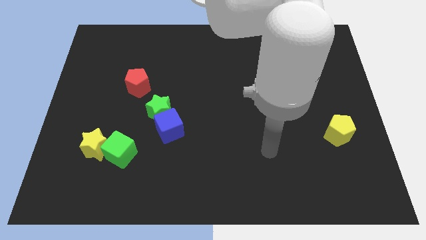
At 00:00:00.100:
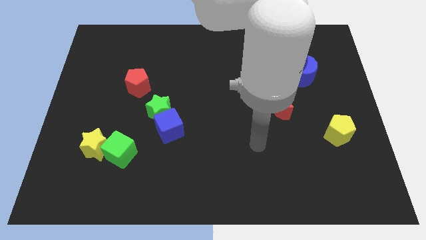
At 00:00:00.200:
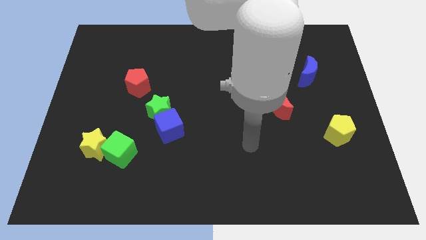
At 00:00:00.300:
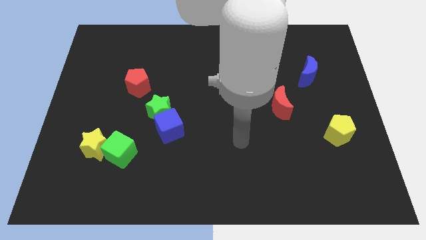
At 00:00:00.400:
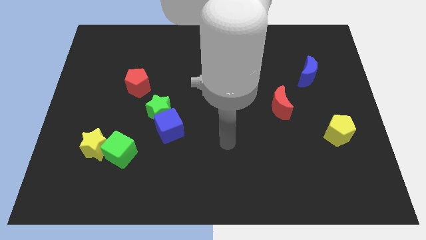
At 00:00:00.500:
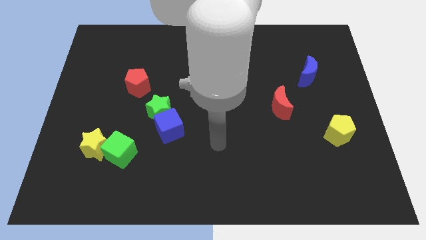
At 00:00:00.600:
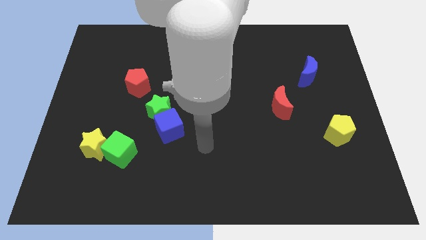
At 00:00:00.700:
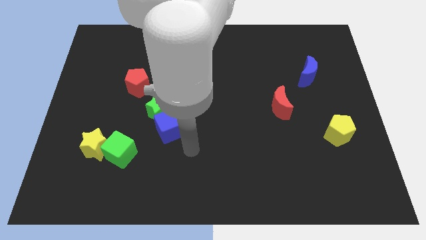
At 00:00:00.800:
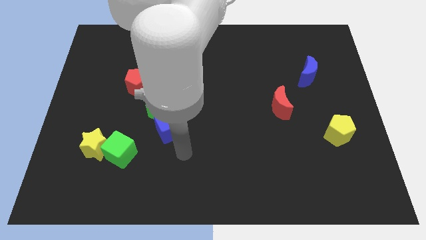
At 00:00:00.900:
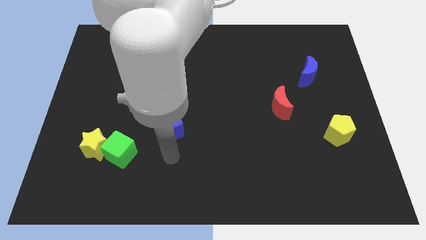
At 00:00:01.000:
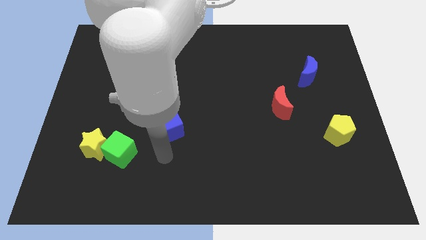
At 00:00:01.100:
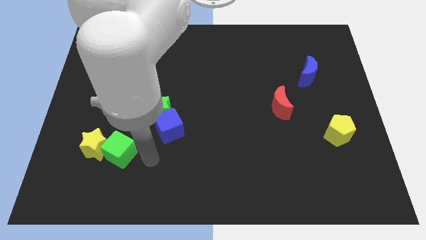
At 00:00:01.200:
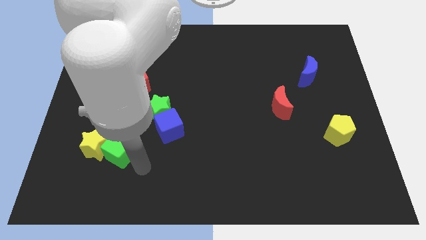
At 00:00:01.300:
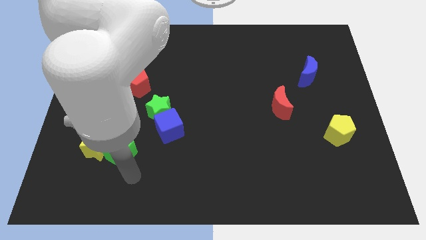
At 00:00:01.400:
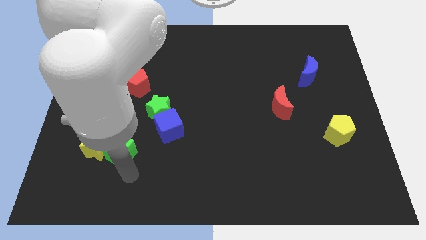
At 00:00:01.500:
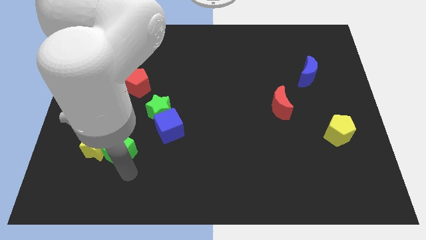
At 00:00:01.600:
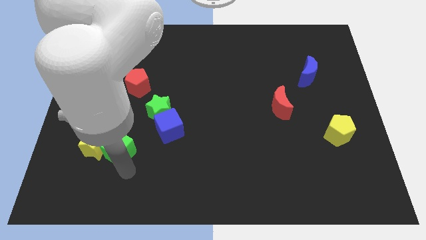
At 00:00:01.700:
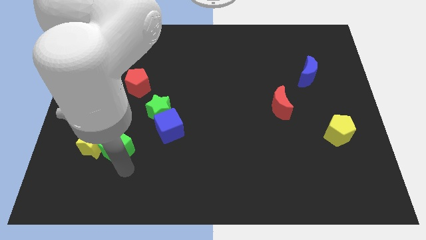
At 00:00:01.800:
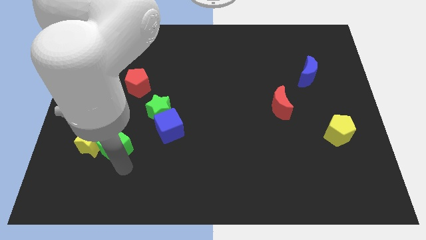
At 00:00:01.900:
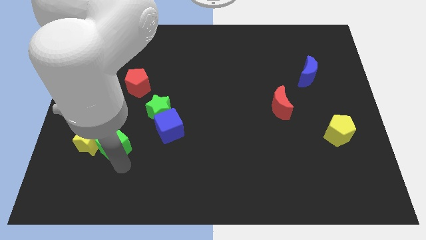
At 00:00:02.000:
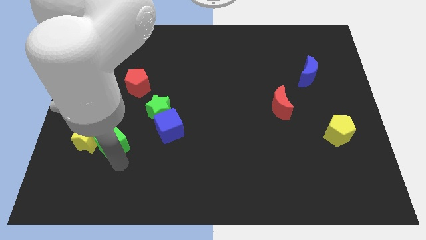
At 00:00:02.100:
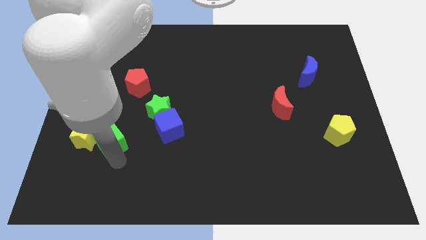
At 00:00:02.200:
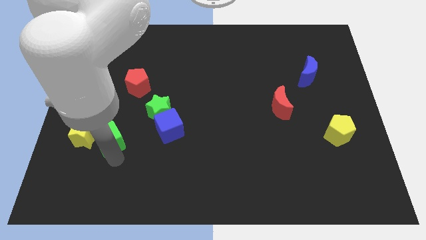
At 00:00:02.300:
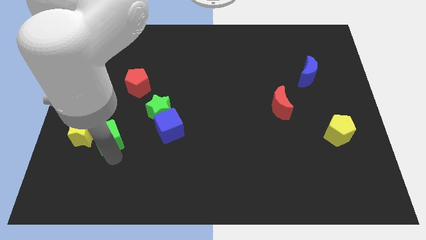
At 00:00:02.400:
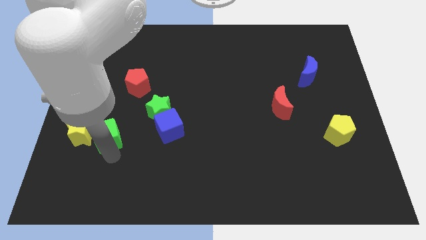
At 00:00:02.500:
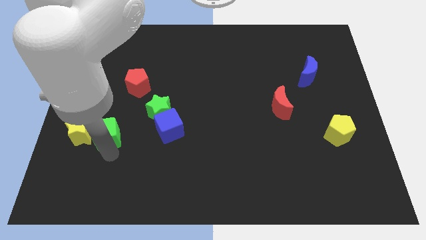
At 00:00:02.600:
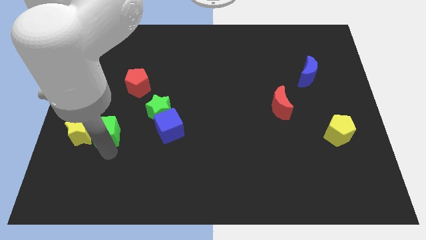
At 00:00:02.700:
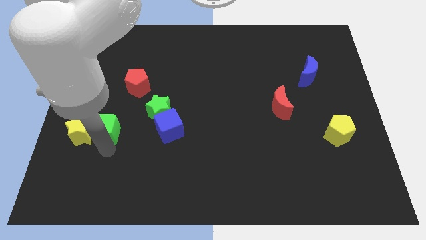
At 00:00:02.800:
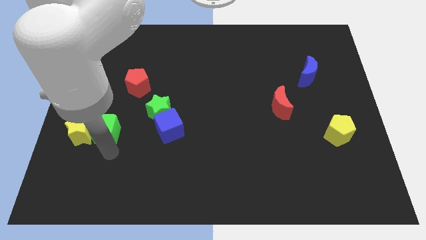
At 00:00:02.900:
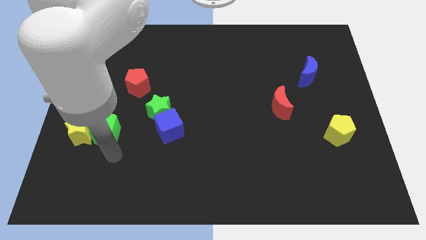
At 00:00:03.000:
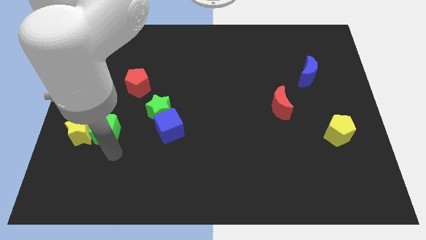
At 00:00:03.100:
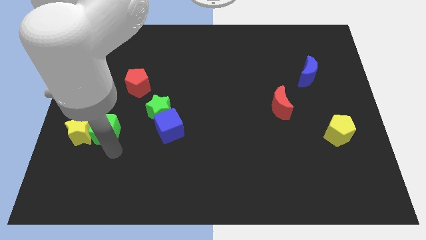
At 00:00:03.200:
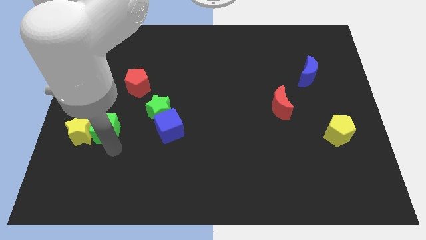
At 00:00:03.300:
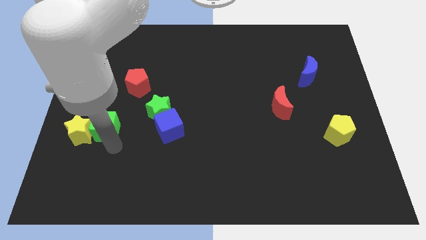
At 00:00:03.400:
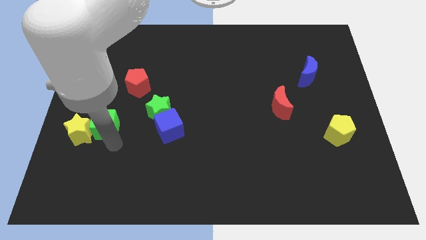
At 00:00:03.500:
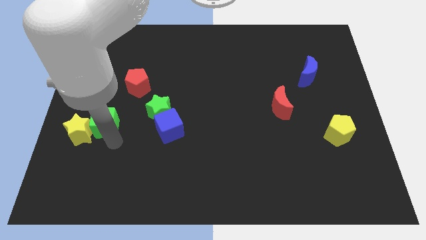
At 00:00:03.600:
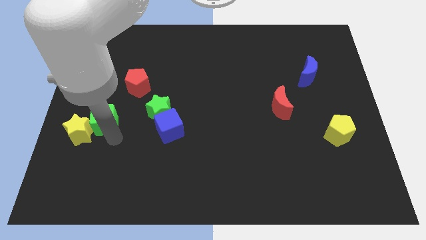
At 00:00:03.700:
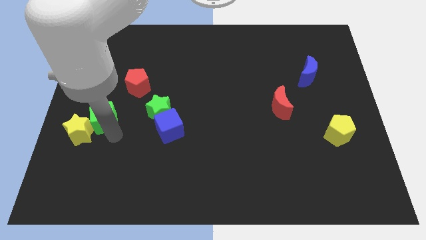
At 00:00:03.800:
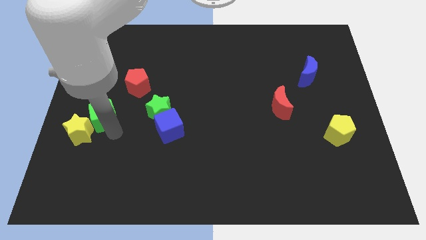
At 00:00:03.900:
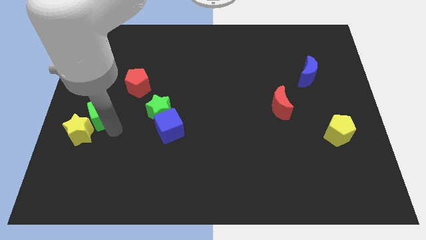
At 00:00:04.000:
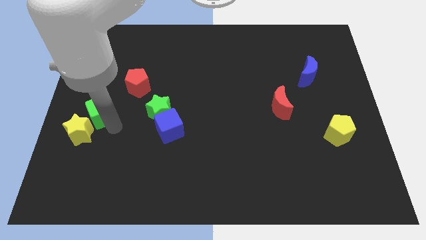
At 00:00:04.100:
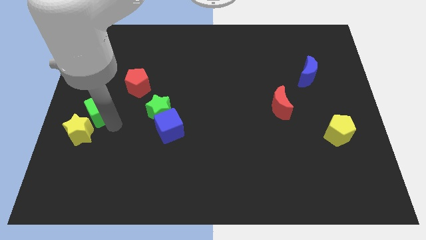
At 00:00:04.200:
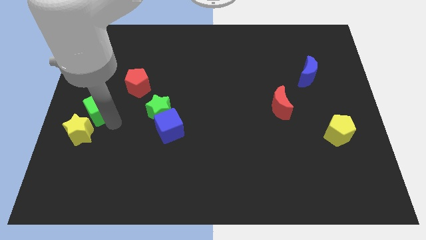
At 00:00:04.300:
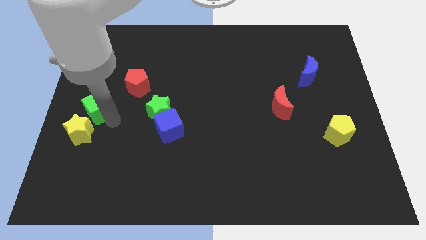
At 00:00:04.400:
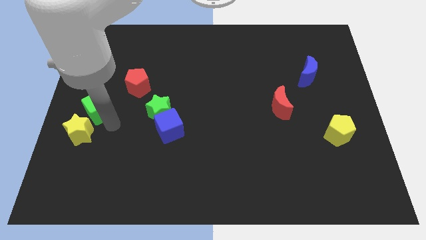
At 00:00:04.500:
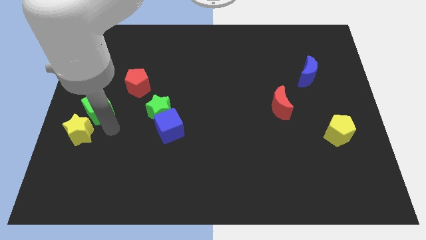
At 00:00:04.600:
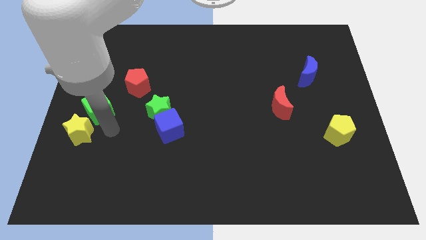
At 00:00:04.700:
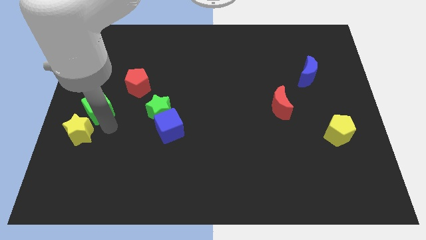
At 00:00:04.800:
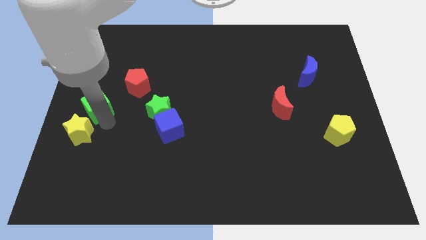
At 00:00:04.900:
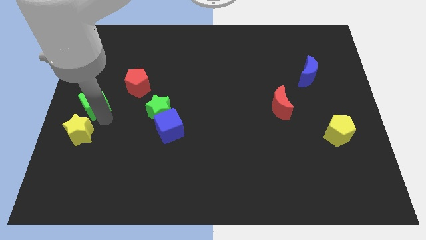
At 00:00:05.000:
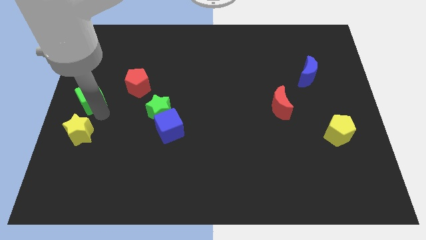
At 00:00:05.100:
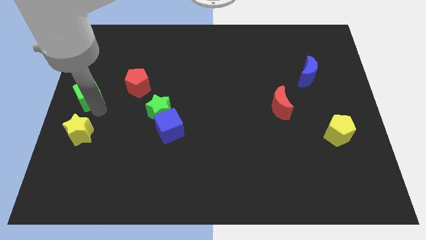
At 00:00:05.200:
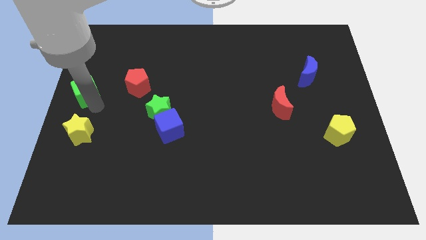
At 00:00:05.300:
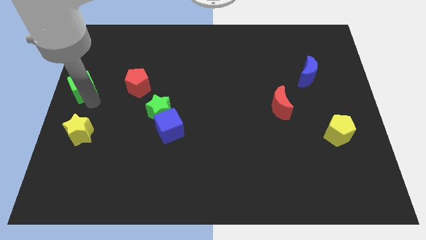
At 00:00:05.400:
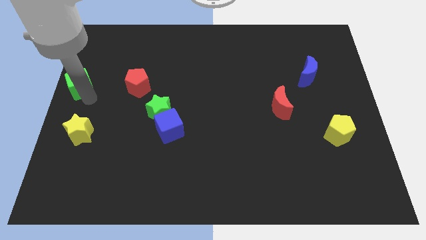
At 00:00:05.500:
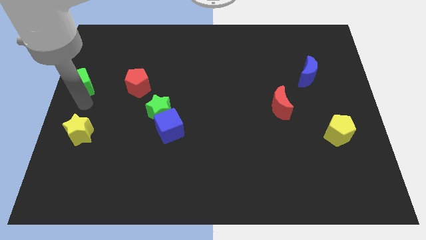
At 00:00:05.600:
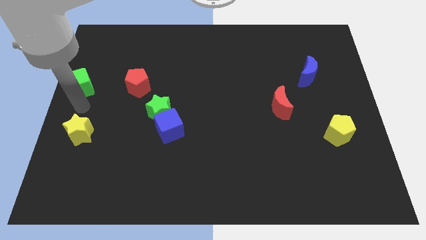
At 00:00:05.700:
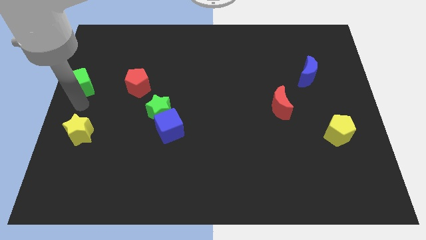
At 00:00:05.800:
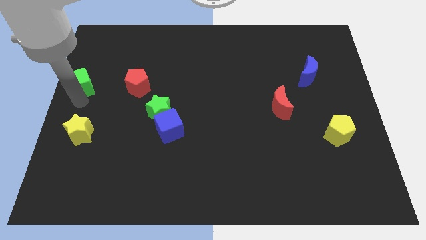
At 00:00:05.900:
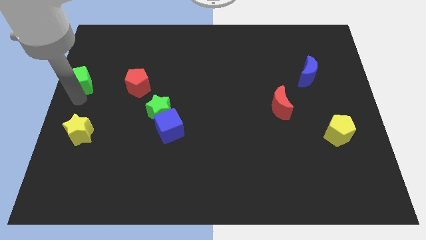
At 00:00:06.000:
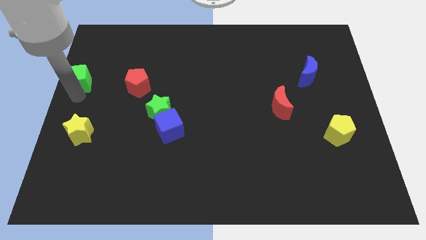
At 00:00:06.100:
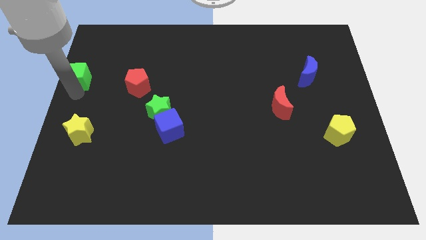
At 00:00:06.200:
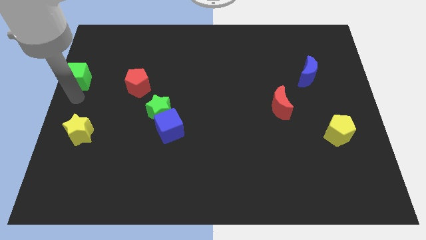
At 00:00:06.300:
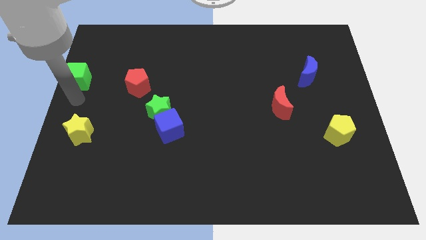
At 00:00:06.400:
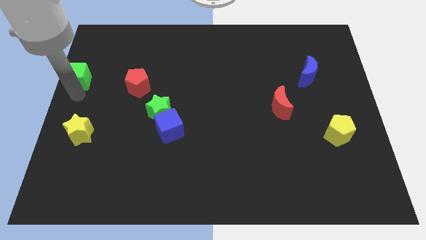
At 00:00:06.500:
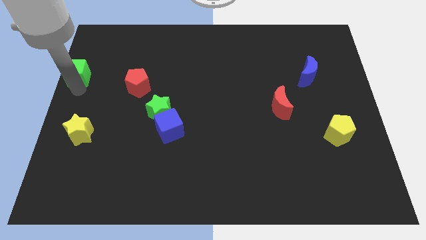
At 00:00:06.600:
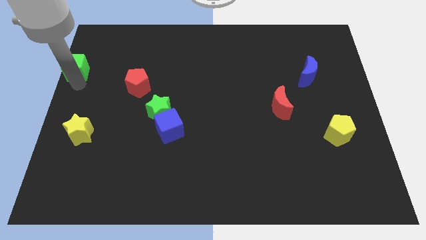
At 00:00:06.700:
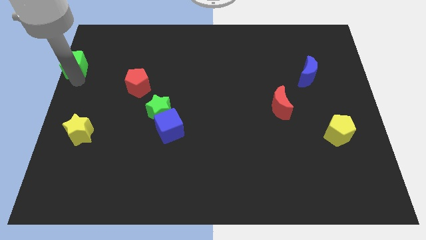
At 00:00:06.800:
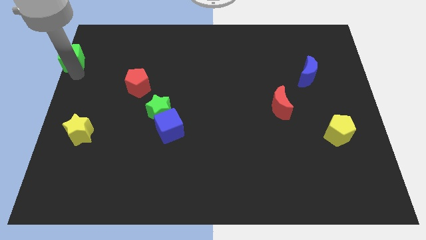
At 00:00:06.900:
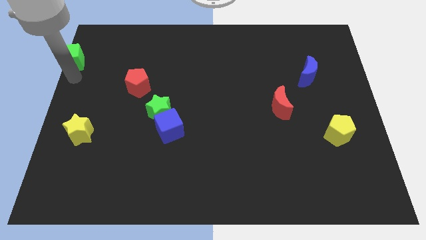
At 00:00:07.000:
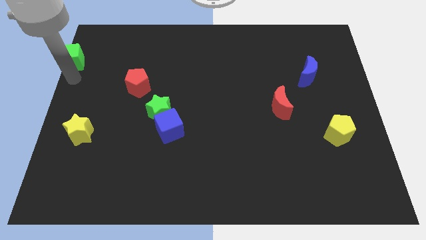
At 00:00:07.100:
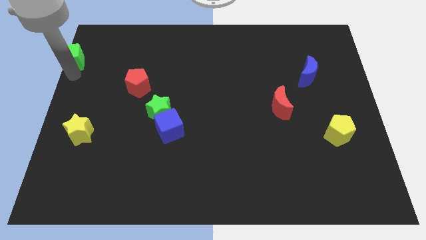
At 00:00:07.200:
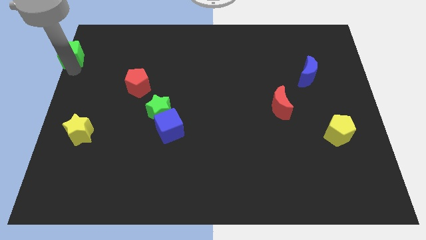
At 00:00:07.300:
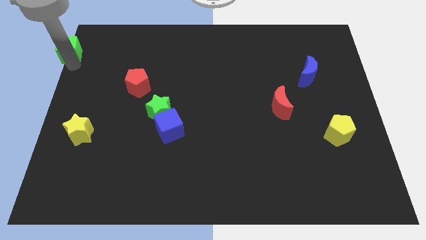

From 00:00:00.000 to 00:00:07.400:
slide the green cube to the top left
